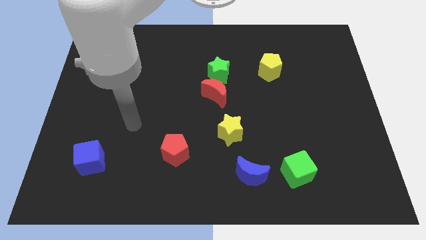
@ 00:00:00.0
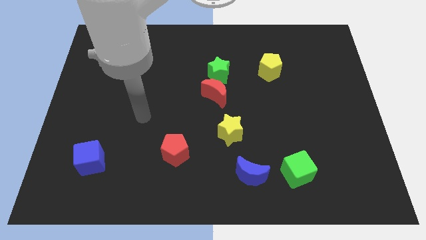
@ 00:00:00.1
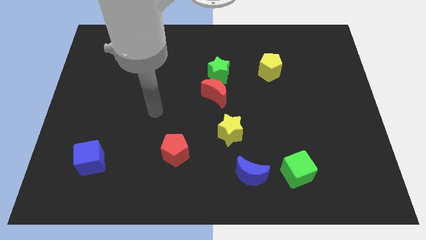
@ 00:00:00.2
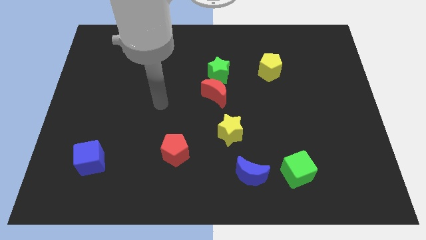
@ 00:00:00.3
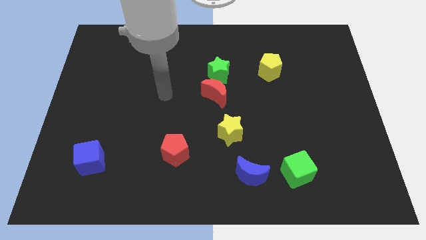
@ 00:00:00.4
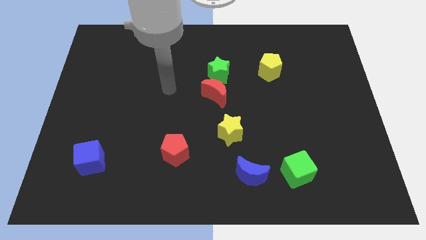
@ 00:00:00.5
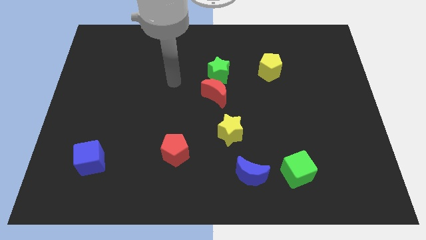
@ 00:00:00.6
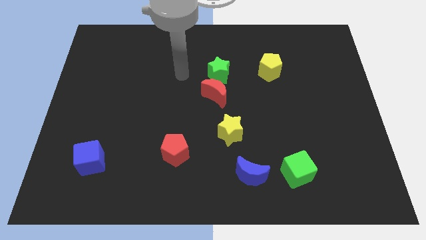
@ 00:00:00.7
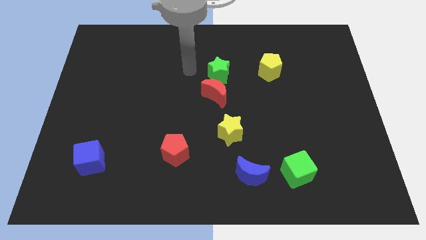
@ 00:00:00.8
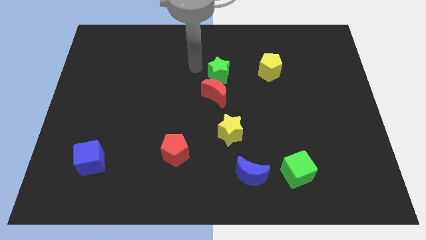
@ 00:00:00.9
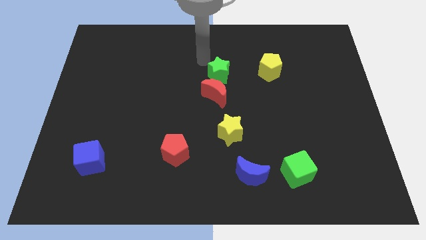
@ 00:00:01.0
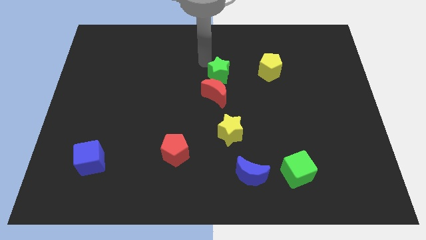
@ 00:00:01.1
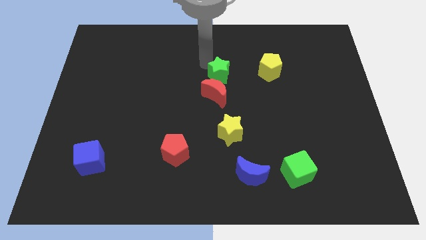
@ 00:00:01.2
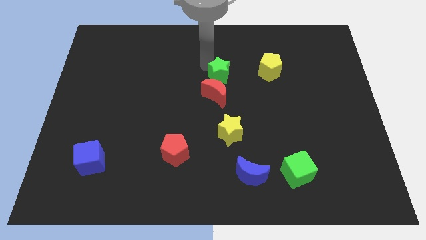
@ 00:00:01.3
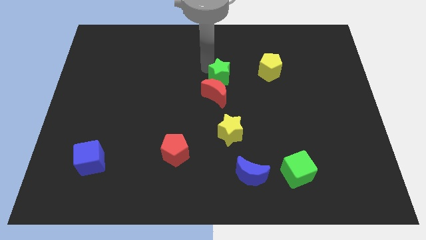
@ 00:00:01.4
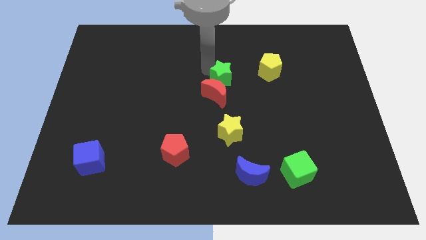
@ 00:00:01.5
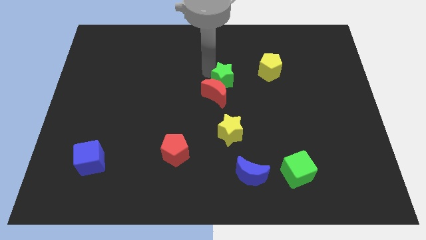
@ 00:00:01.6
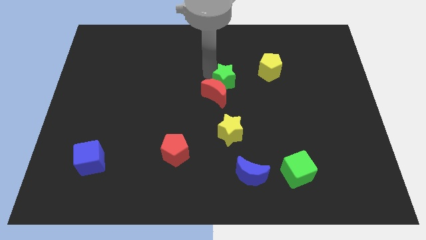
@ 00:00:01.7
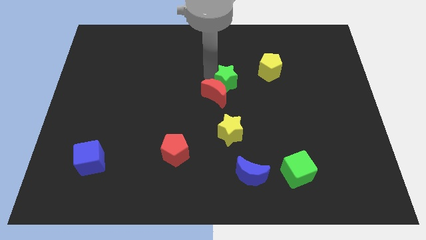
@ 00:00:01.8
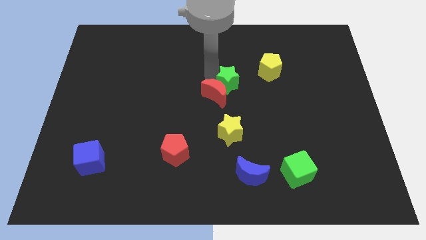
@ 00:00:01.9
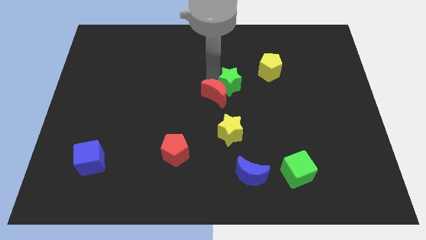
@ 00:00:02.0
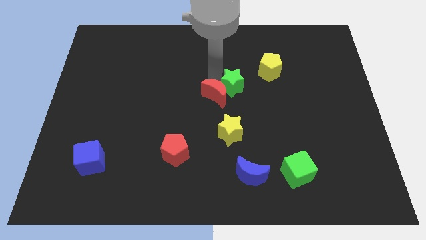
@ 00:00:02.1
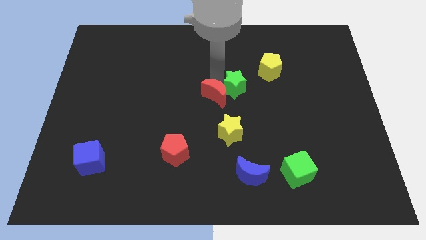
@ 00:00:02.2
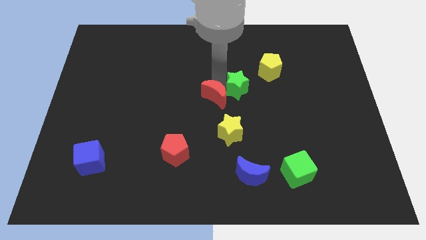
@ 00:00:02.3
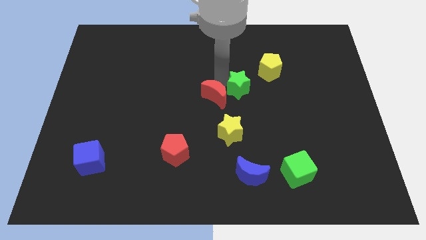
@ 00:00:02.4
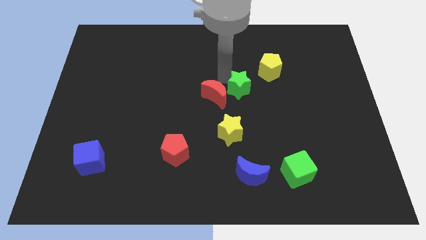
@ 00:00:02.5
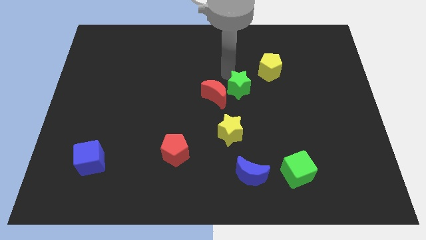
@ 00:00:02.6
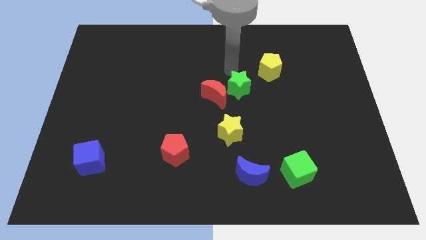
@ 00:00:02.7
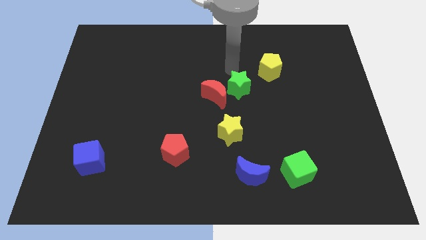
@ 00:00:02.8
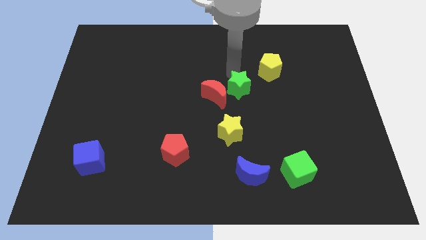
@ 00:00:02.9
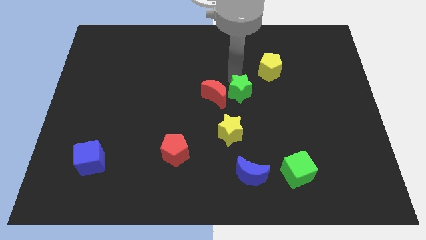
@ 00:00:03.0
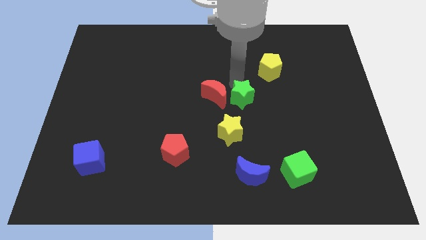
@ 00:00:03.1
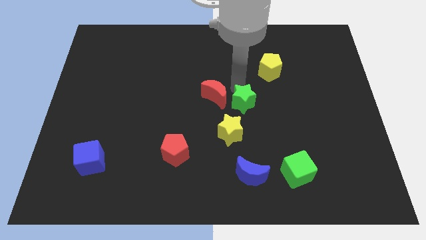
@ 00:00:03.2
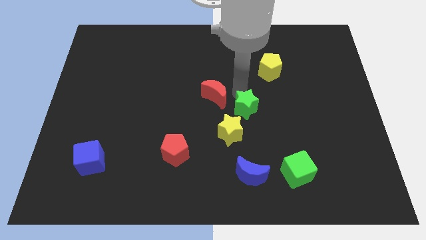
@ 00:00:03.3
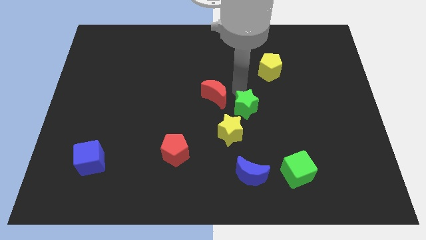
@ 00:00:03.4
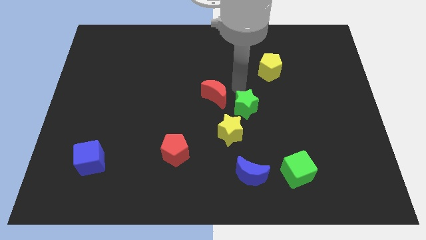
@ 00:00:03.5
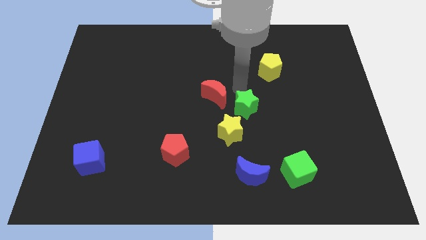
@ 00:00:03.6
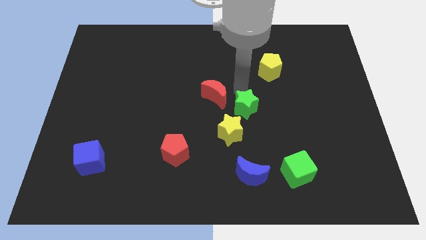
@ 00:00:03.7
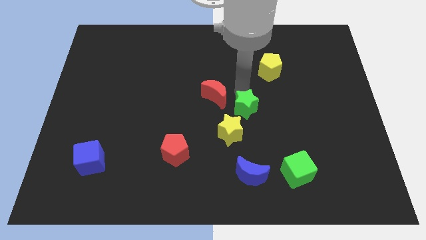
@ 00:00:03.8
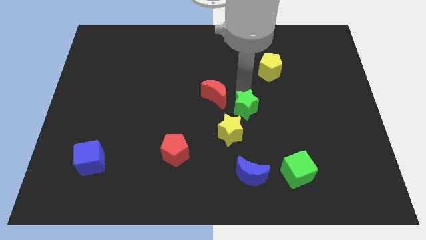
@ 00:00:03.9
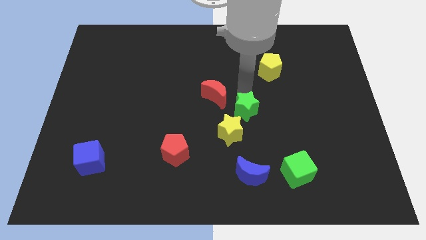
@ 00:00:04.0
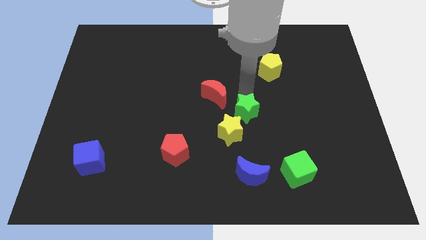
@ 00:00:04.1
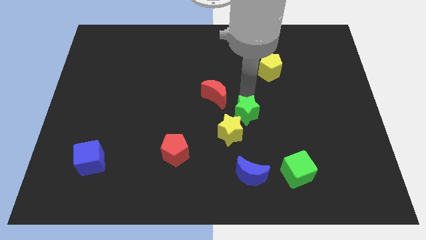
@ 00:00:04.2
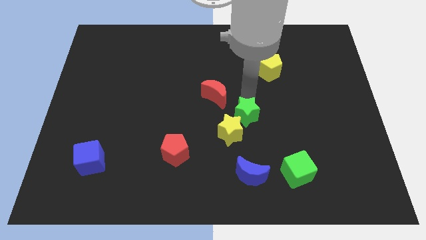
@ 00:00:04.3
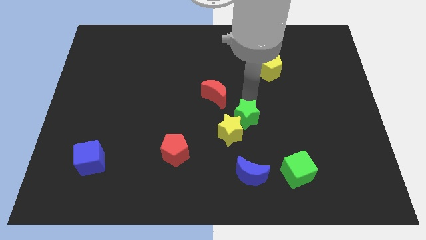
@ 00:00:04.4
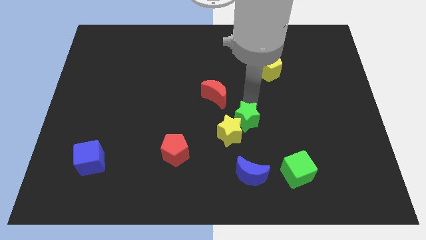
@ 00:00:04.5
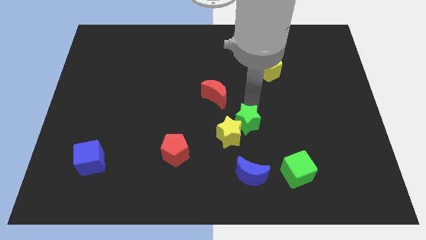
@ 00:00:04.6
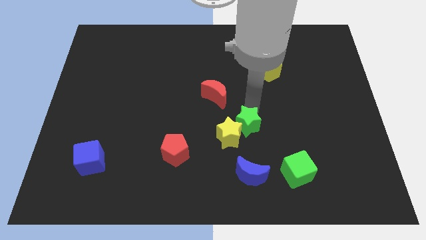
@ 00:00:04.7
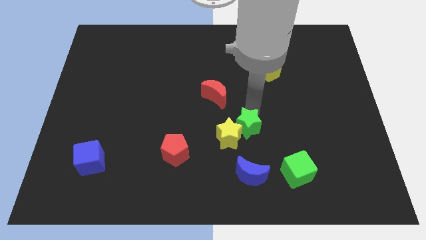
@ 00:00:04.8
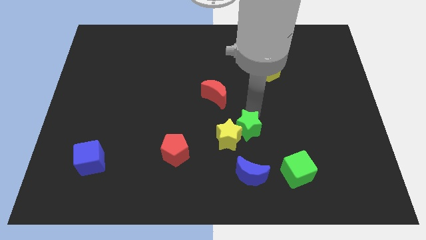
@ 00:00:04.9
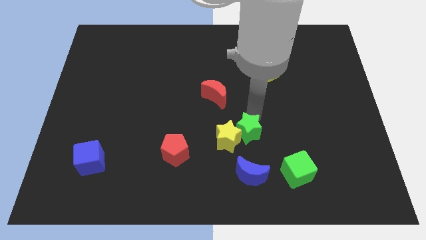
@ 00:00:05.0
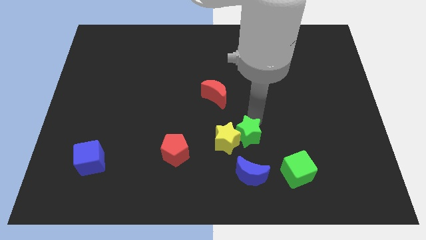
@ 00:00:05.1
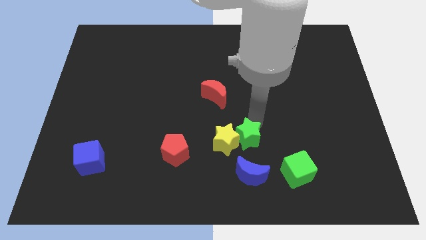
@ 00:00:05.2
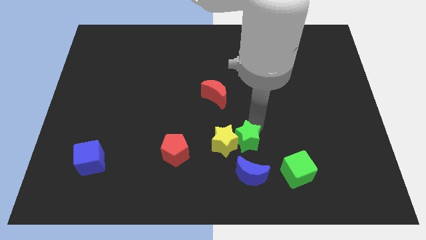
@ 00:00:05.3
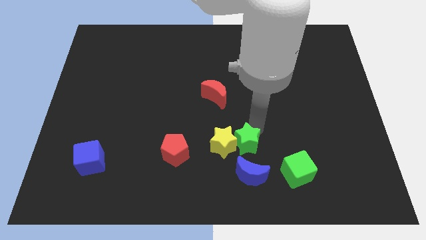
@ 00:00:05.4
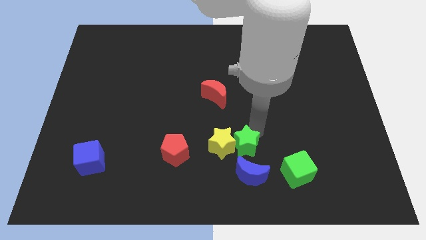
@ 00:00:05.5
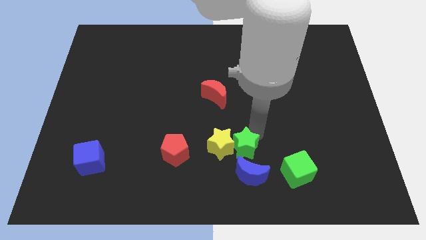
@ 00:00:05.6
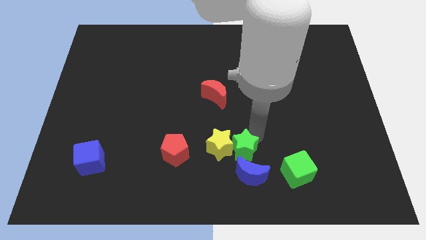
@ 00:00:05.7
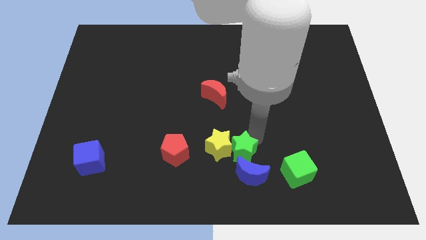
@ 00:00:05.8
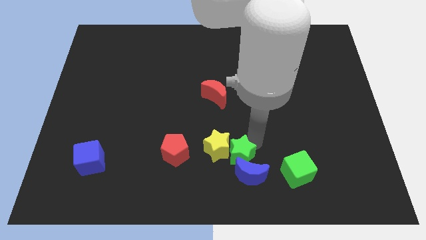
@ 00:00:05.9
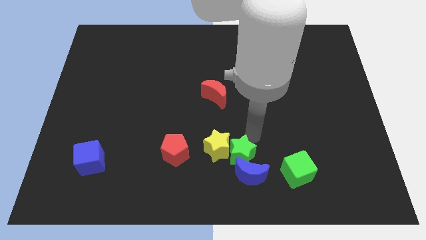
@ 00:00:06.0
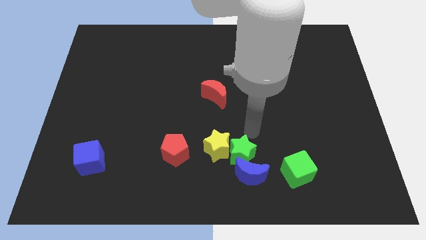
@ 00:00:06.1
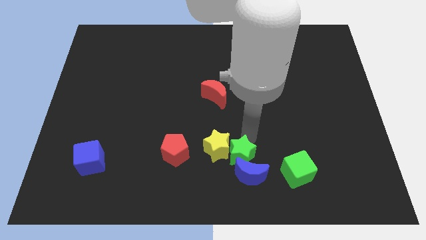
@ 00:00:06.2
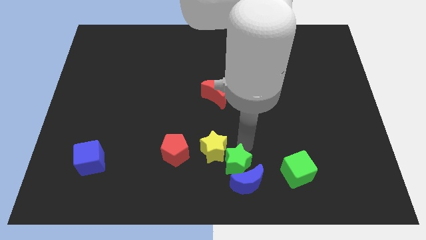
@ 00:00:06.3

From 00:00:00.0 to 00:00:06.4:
put the green star to the bottom
